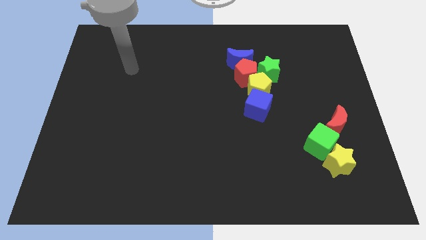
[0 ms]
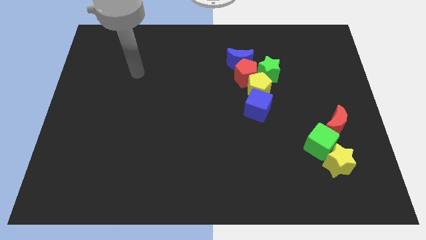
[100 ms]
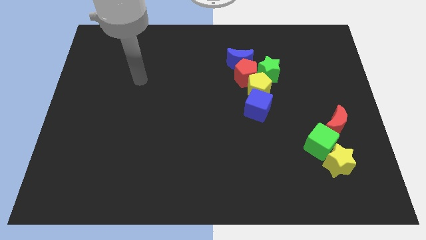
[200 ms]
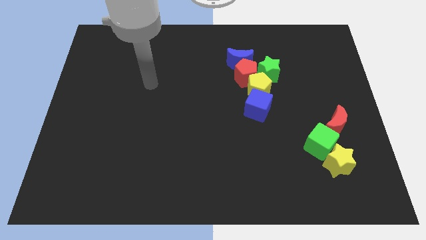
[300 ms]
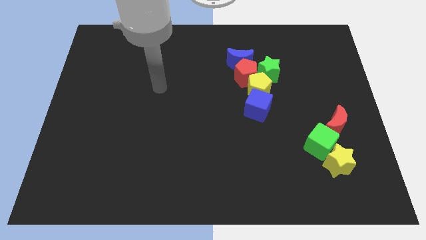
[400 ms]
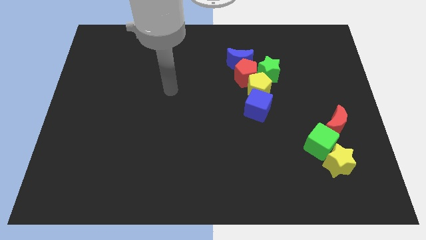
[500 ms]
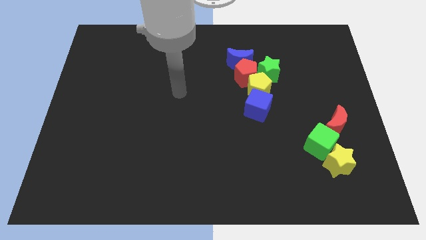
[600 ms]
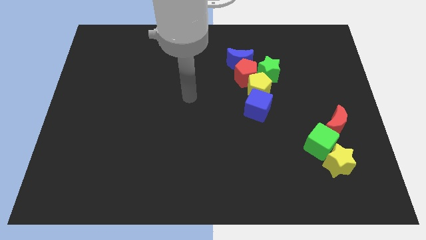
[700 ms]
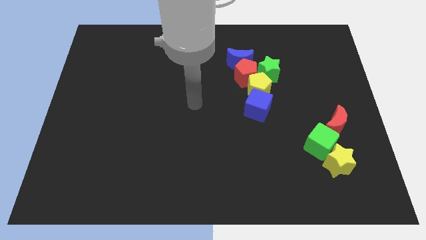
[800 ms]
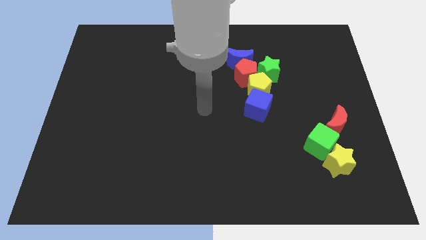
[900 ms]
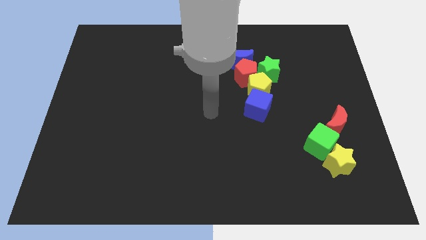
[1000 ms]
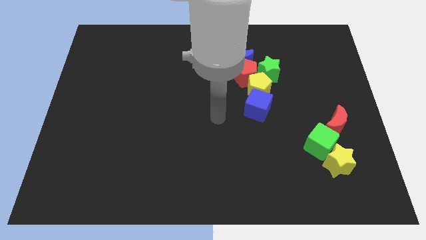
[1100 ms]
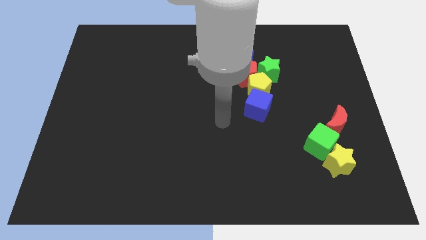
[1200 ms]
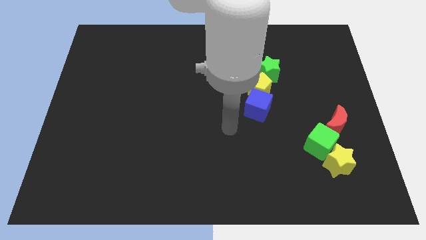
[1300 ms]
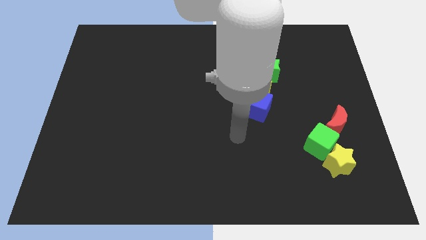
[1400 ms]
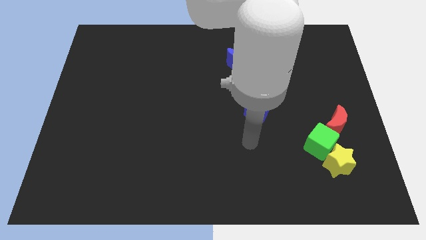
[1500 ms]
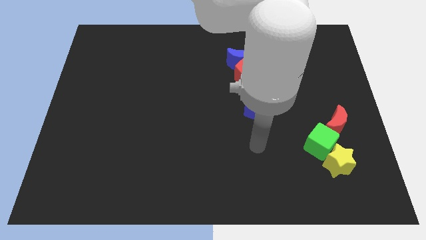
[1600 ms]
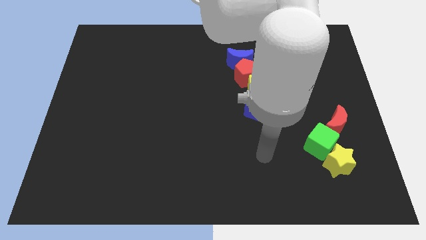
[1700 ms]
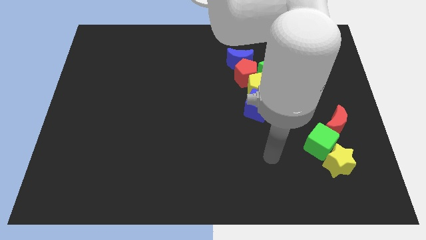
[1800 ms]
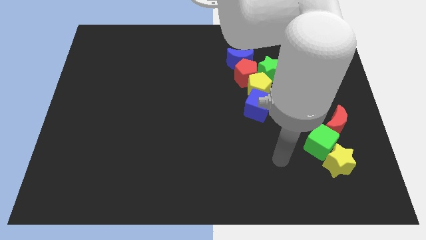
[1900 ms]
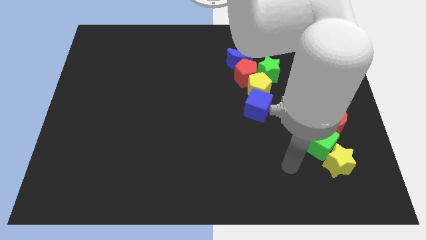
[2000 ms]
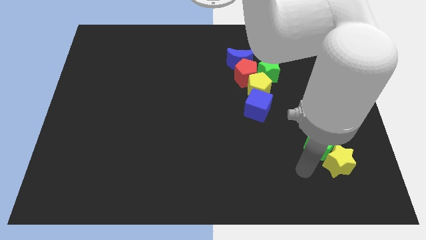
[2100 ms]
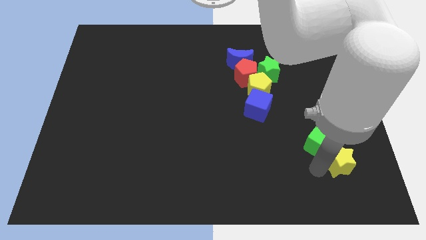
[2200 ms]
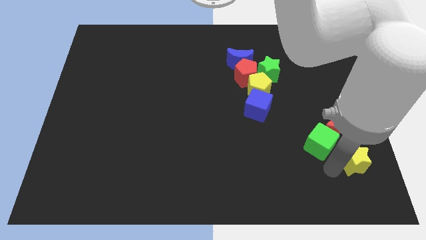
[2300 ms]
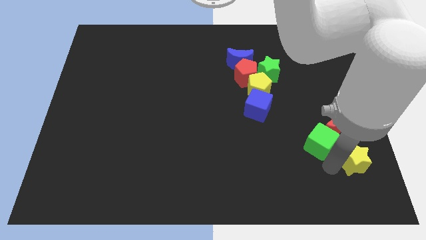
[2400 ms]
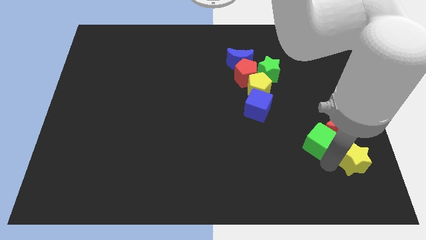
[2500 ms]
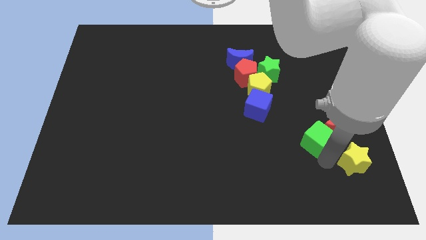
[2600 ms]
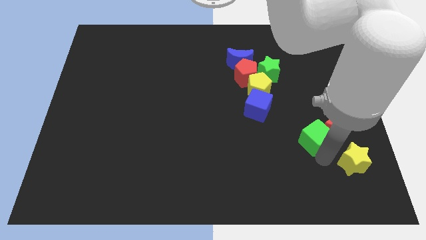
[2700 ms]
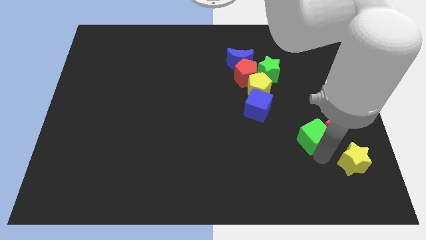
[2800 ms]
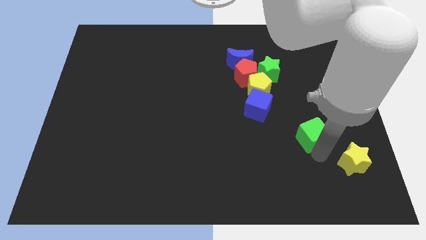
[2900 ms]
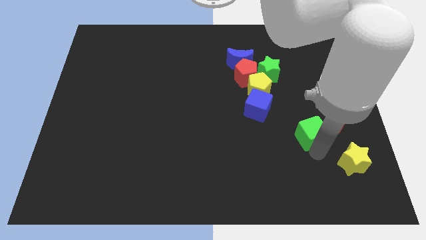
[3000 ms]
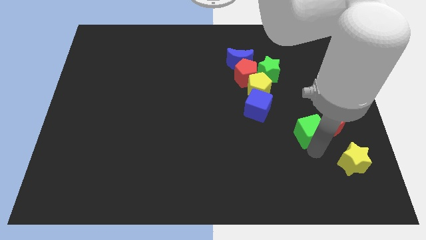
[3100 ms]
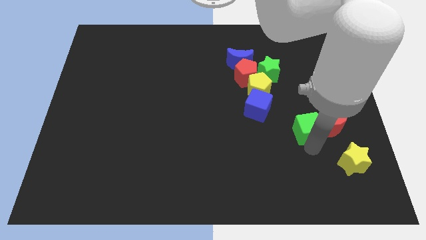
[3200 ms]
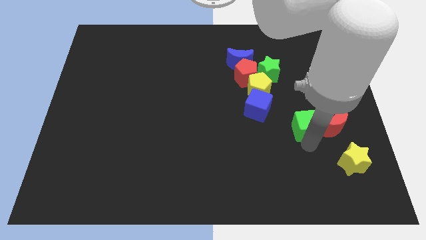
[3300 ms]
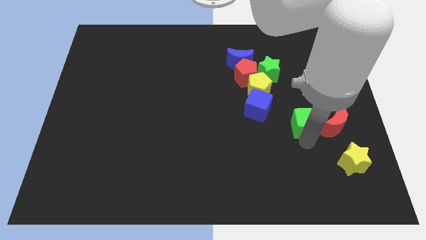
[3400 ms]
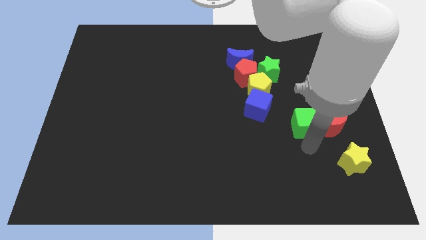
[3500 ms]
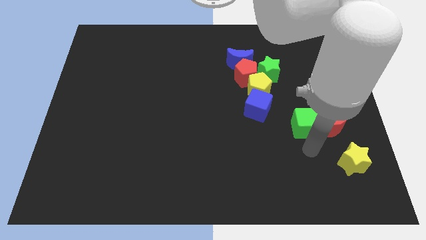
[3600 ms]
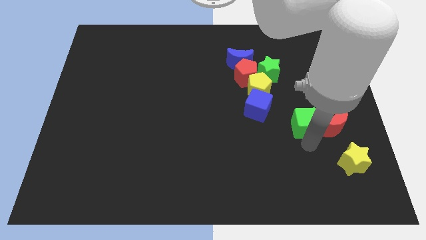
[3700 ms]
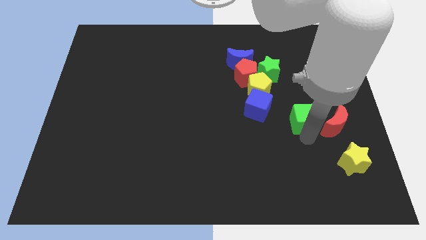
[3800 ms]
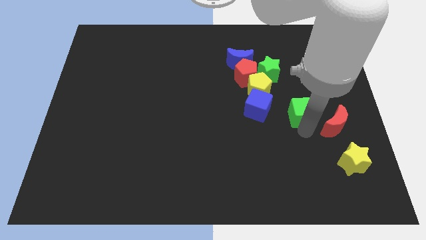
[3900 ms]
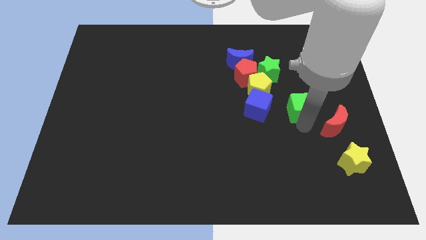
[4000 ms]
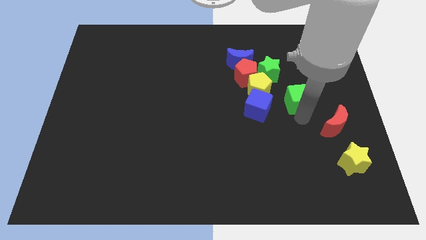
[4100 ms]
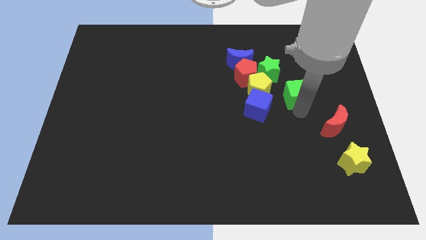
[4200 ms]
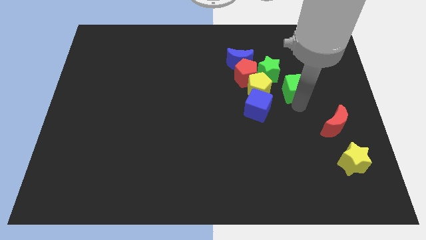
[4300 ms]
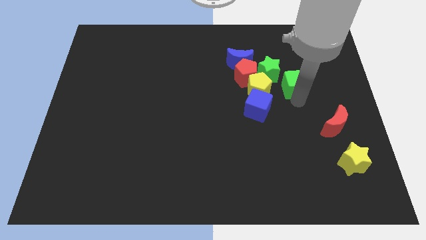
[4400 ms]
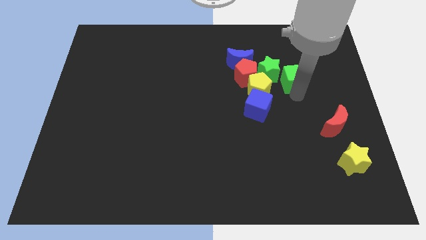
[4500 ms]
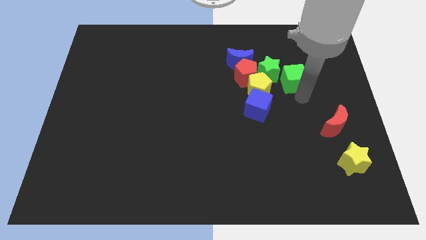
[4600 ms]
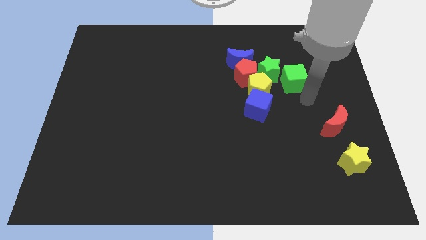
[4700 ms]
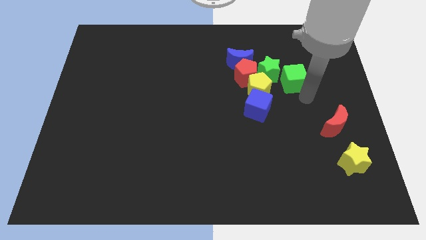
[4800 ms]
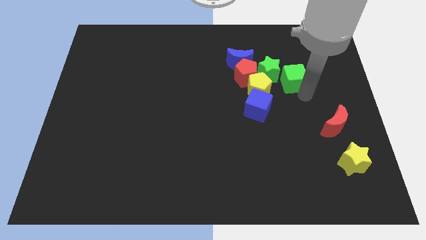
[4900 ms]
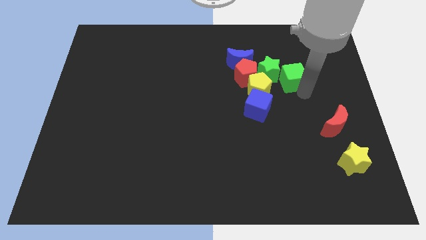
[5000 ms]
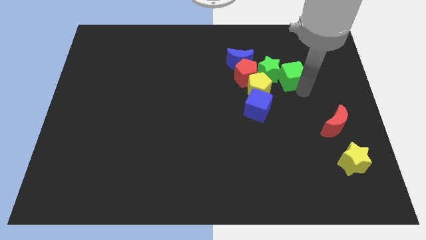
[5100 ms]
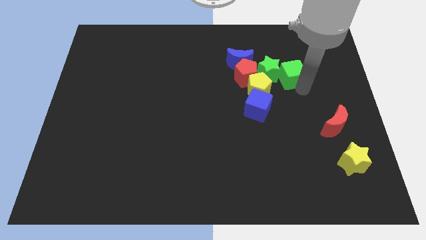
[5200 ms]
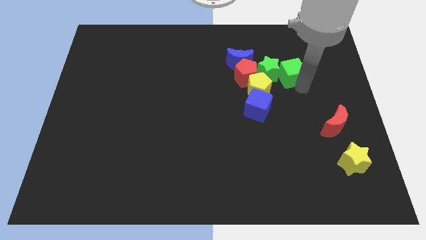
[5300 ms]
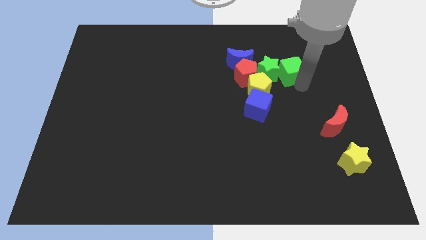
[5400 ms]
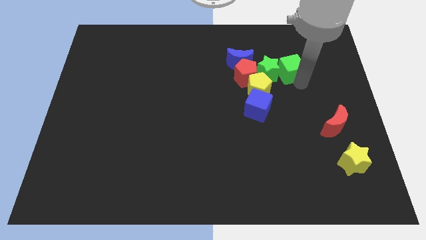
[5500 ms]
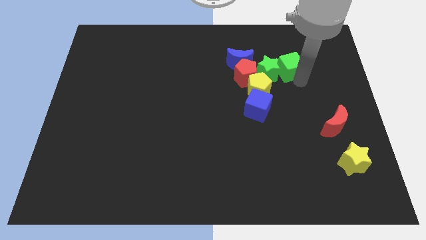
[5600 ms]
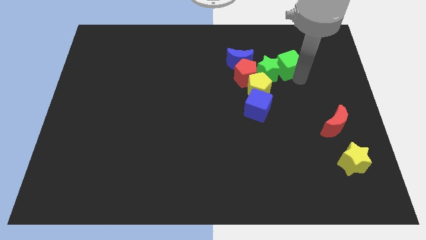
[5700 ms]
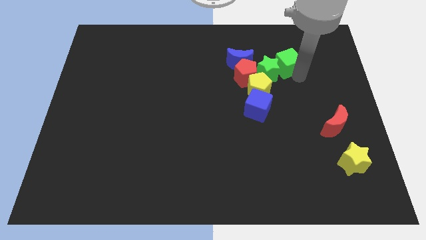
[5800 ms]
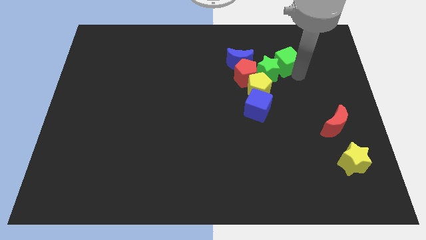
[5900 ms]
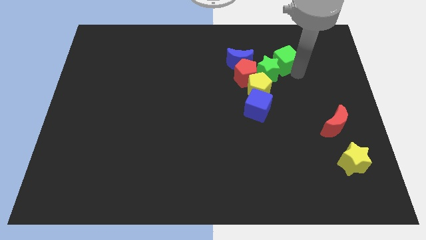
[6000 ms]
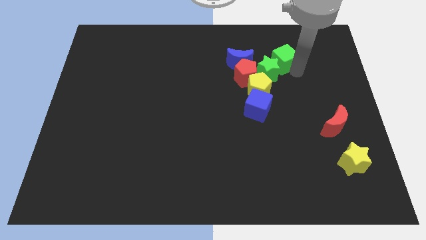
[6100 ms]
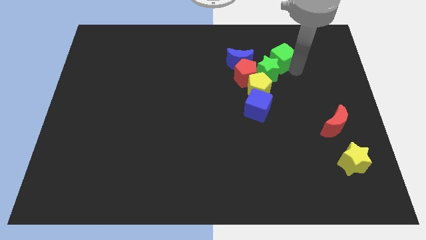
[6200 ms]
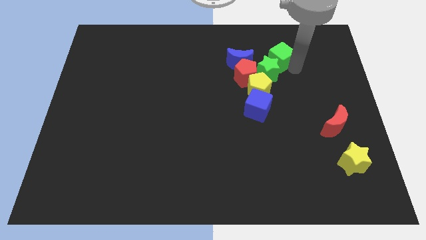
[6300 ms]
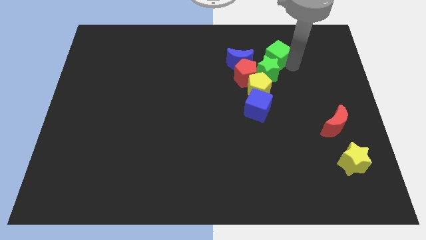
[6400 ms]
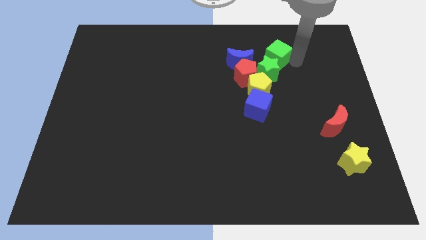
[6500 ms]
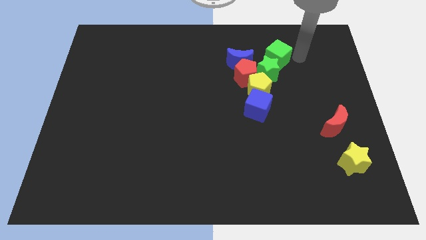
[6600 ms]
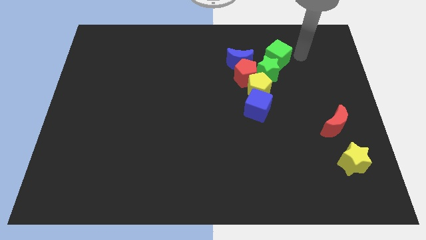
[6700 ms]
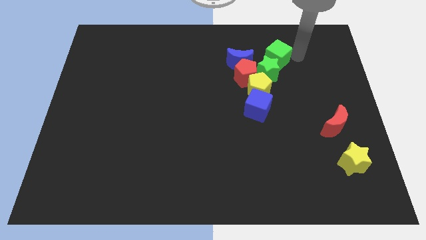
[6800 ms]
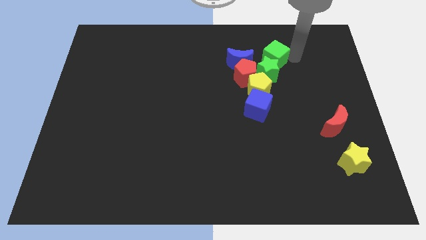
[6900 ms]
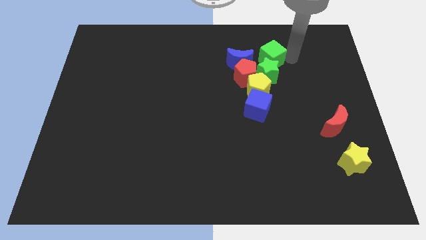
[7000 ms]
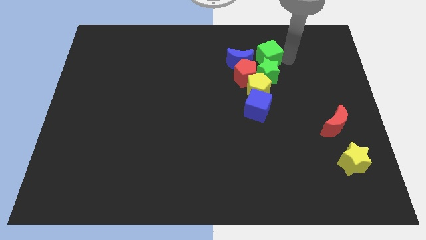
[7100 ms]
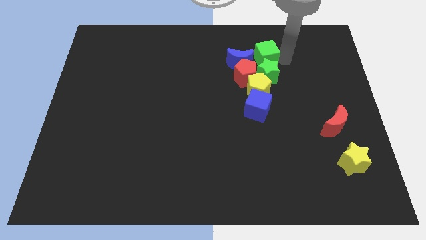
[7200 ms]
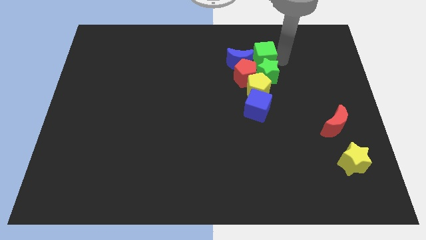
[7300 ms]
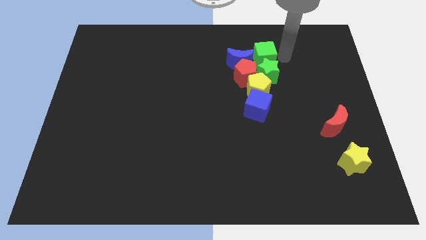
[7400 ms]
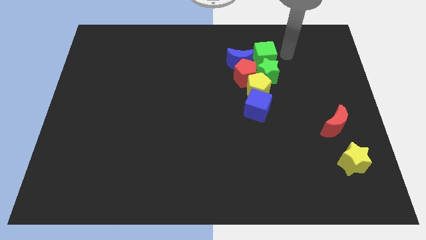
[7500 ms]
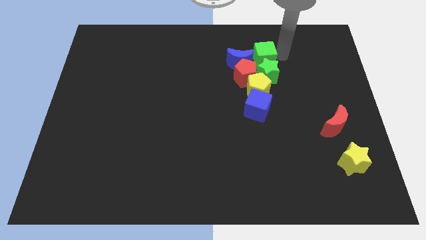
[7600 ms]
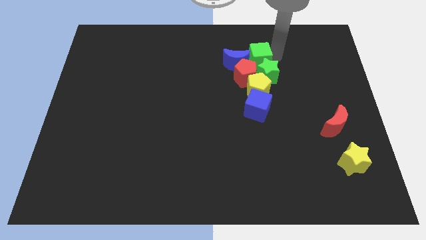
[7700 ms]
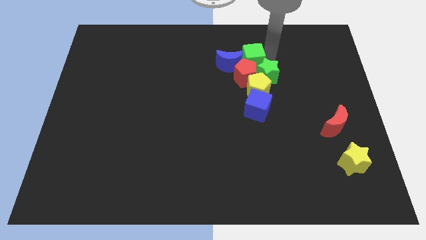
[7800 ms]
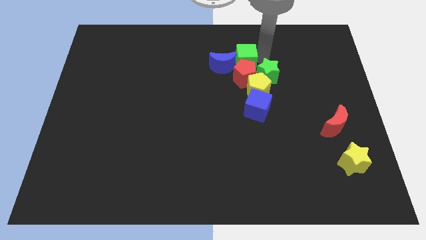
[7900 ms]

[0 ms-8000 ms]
push the green cube next to the blue moon
